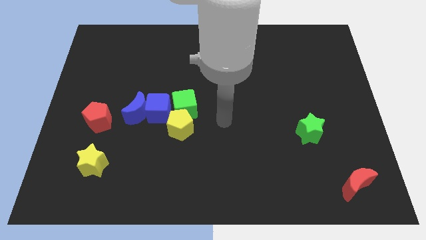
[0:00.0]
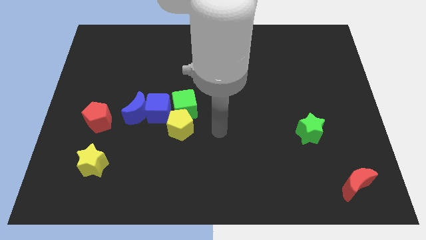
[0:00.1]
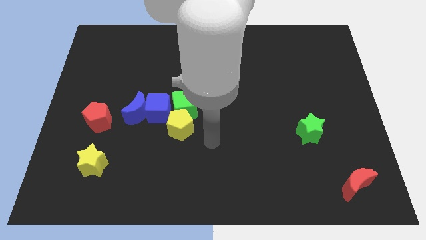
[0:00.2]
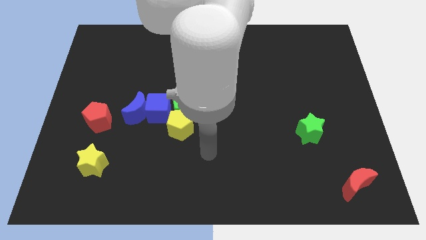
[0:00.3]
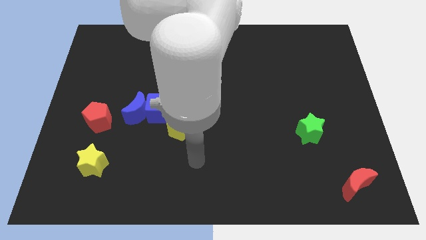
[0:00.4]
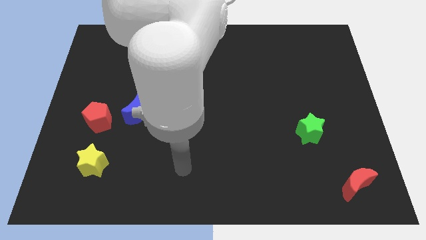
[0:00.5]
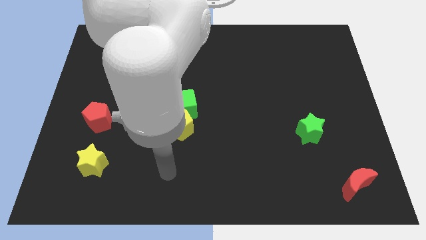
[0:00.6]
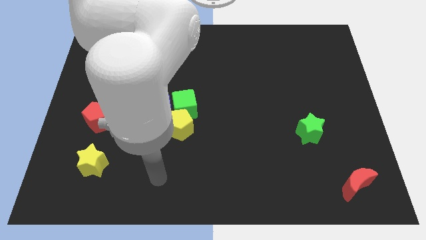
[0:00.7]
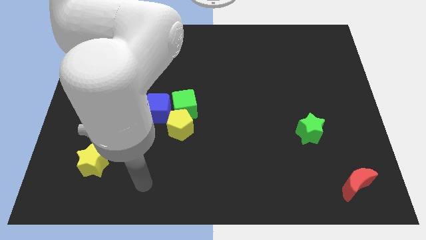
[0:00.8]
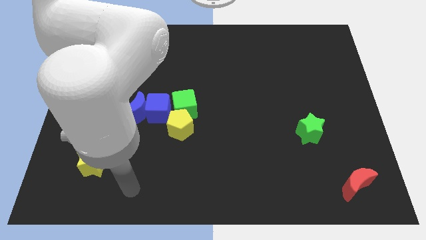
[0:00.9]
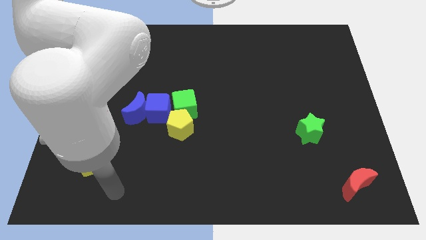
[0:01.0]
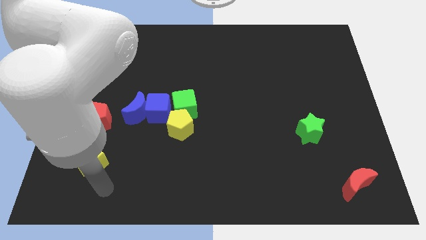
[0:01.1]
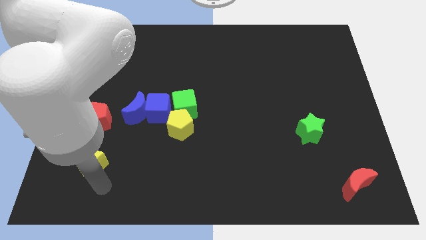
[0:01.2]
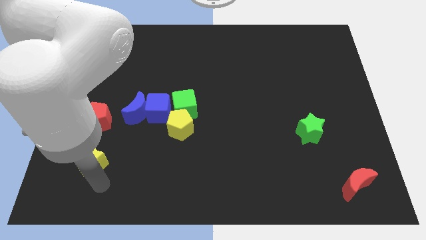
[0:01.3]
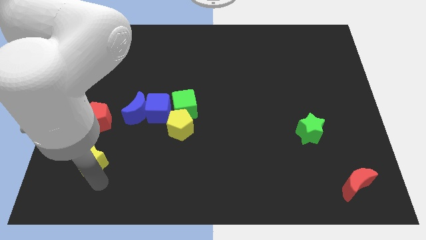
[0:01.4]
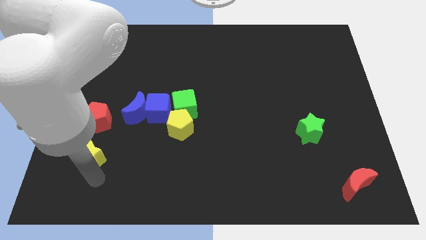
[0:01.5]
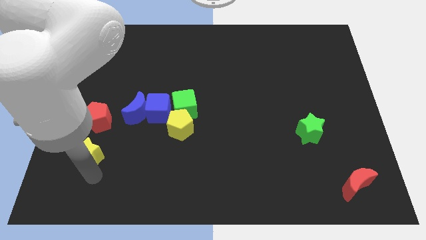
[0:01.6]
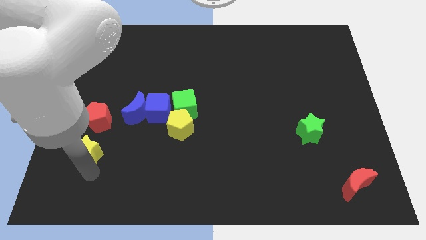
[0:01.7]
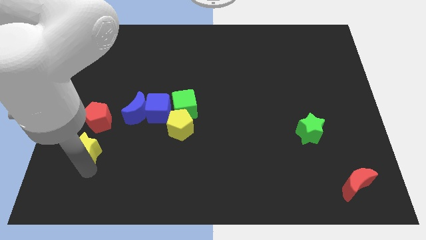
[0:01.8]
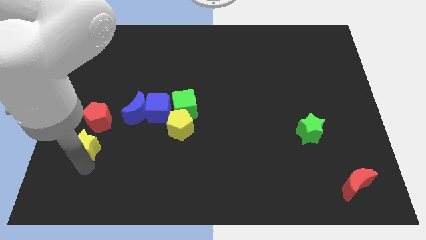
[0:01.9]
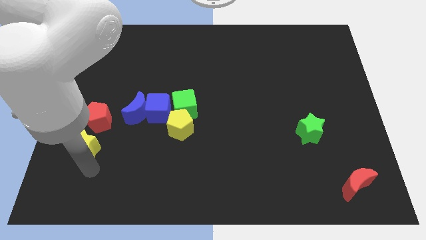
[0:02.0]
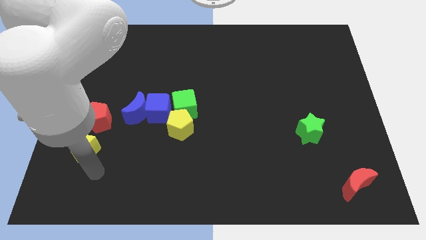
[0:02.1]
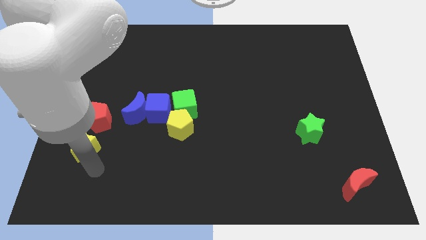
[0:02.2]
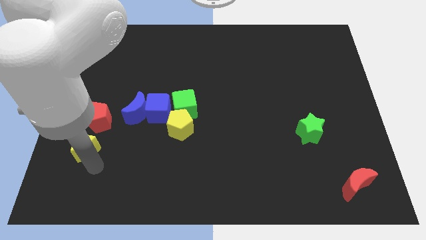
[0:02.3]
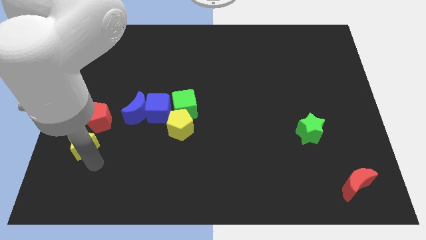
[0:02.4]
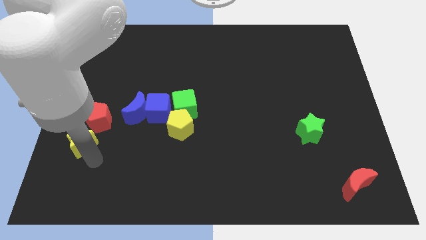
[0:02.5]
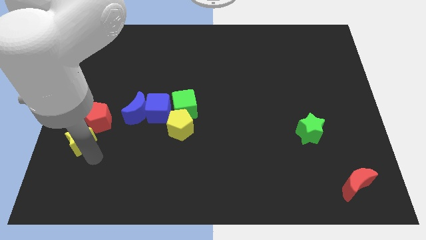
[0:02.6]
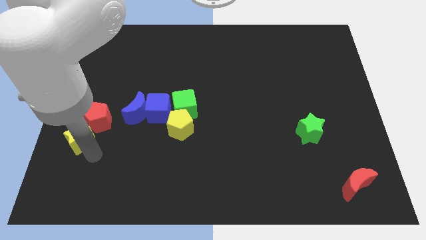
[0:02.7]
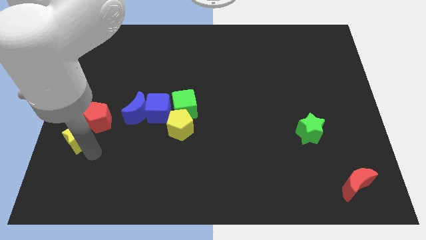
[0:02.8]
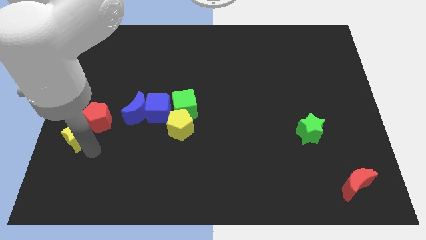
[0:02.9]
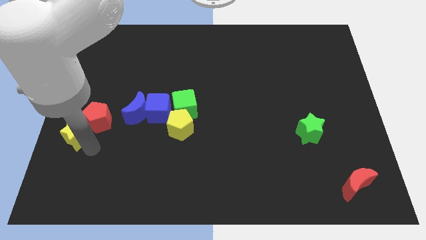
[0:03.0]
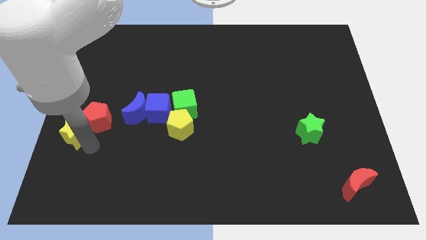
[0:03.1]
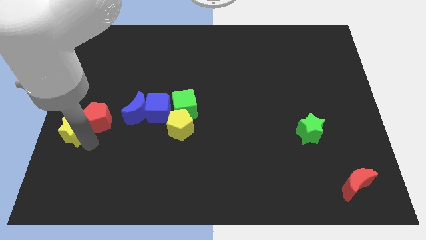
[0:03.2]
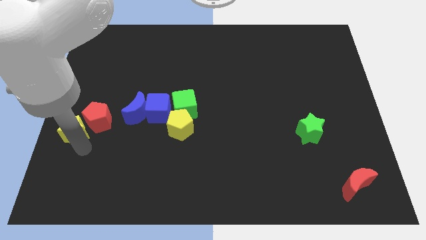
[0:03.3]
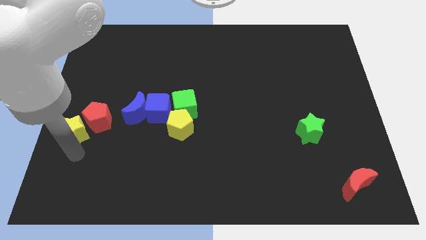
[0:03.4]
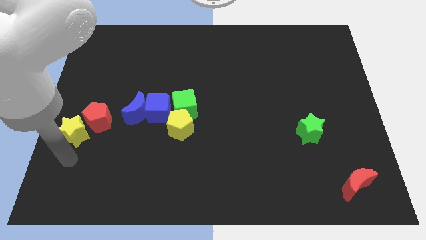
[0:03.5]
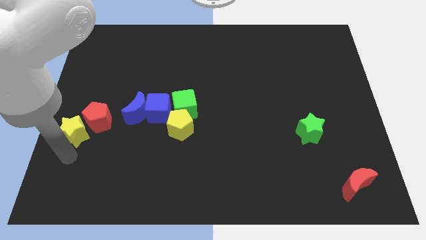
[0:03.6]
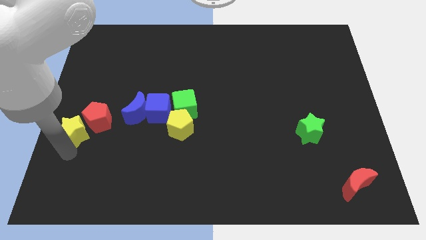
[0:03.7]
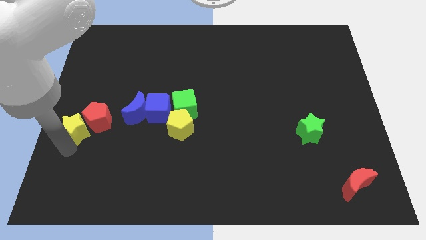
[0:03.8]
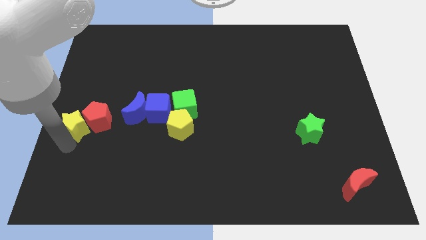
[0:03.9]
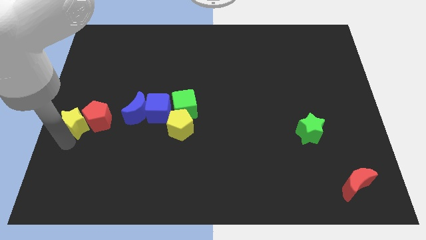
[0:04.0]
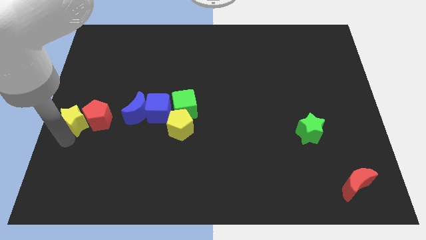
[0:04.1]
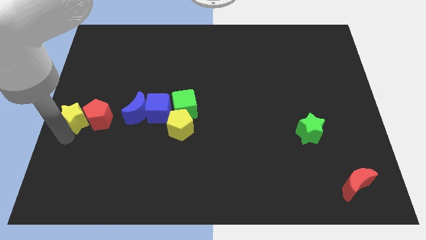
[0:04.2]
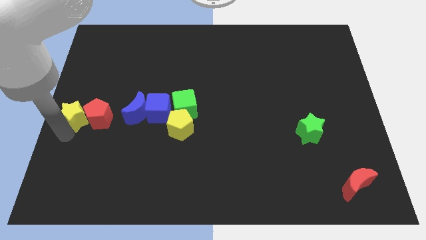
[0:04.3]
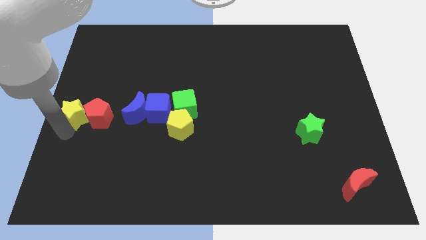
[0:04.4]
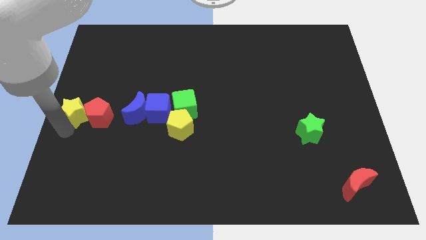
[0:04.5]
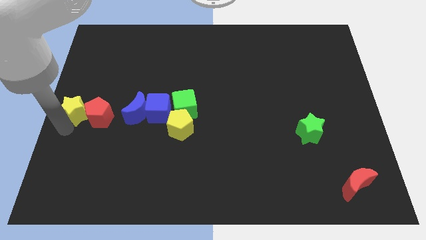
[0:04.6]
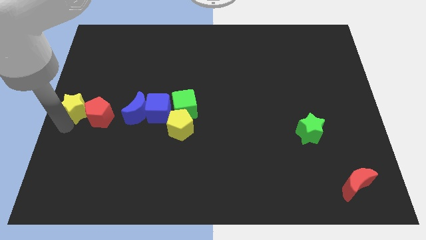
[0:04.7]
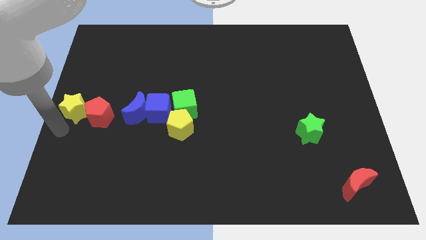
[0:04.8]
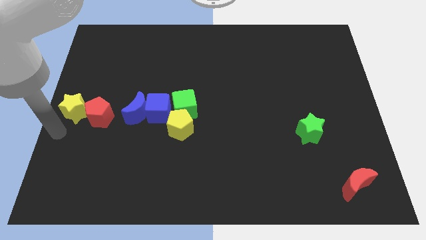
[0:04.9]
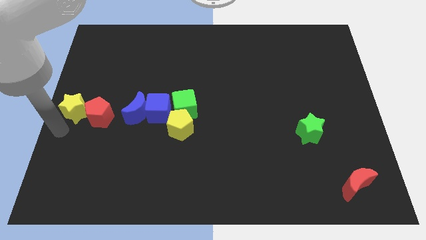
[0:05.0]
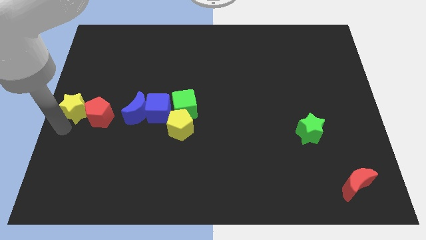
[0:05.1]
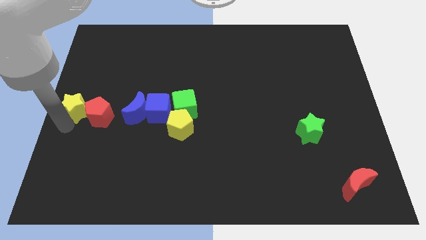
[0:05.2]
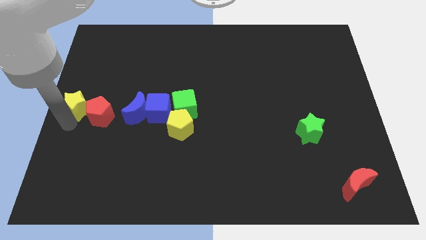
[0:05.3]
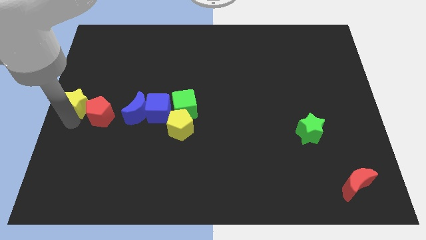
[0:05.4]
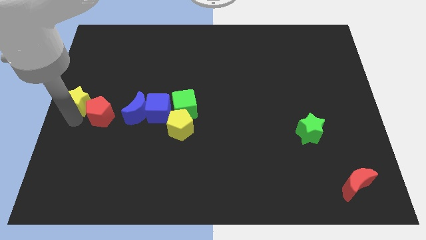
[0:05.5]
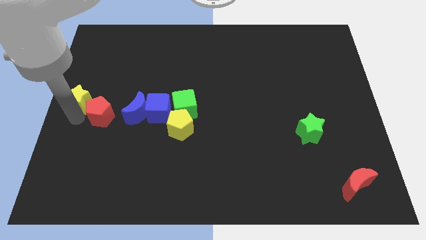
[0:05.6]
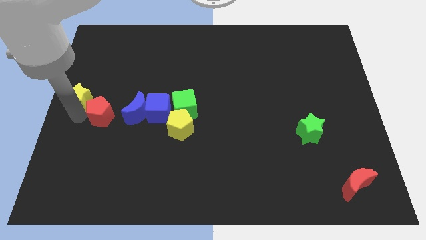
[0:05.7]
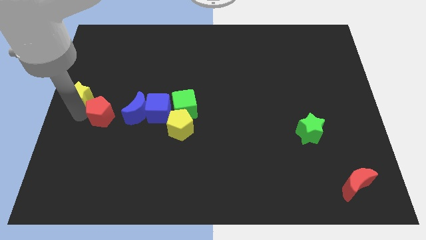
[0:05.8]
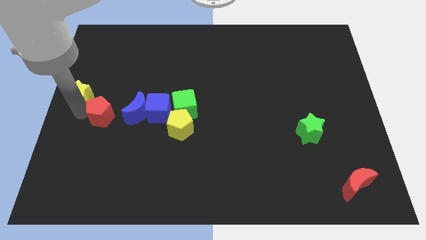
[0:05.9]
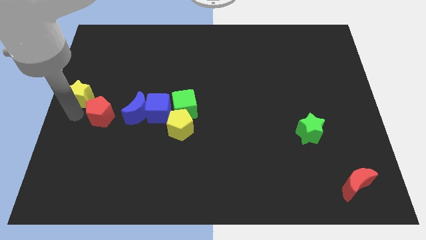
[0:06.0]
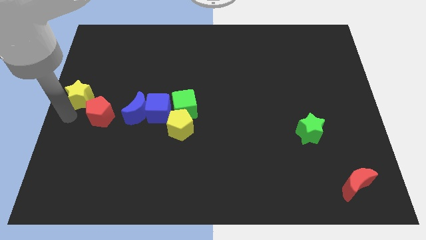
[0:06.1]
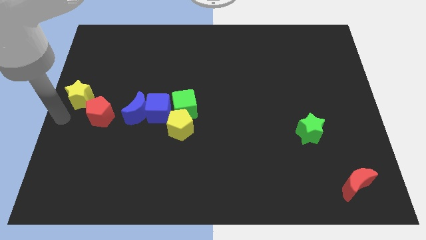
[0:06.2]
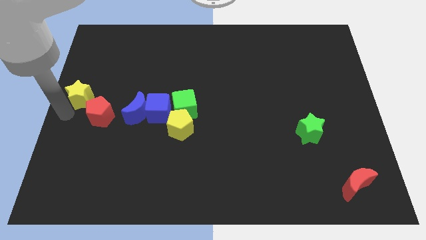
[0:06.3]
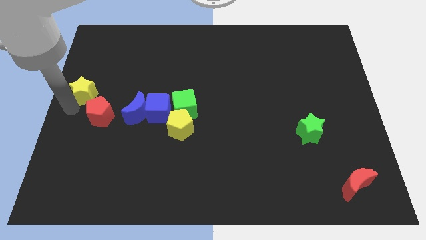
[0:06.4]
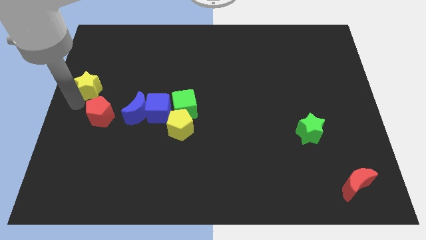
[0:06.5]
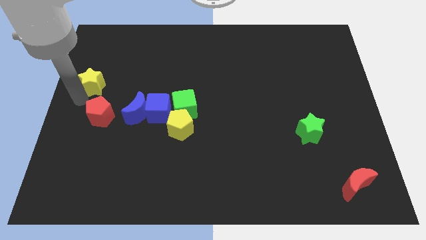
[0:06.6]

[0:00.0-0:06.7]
slide the yellow star up

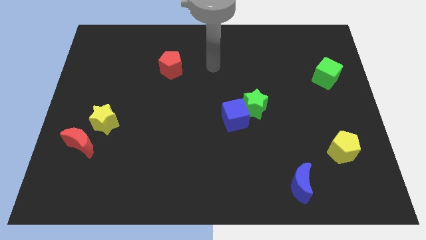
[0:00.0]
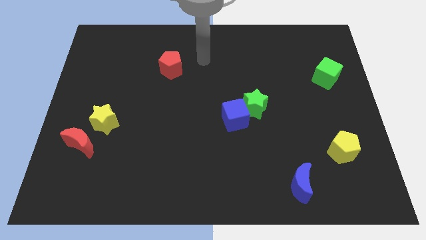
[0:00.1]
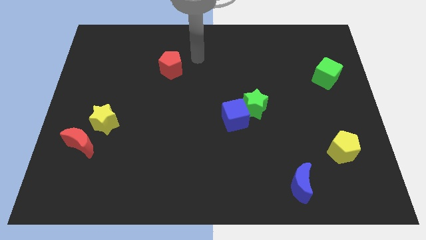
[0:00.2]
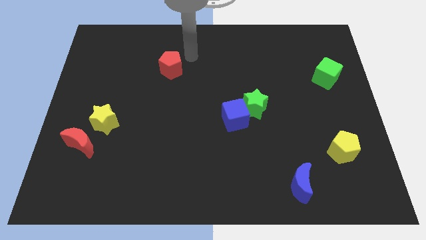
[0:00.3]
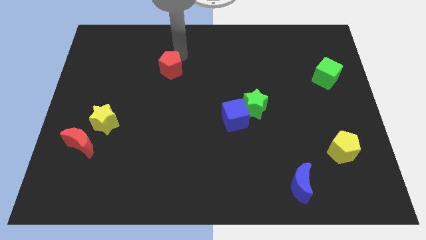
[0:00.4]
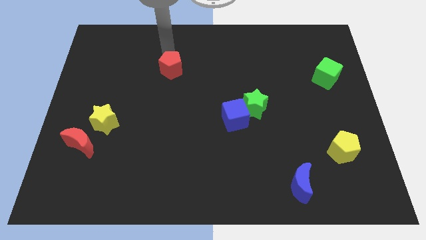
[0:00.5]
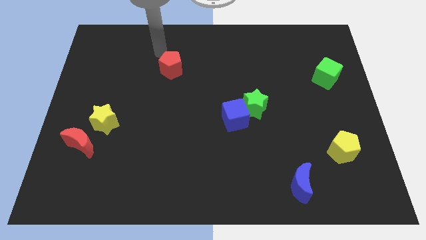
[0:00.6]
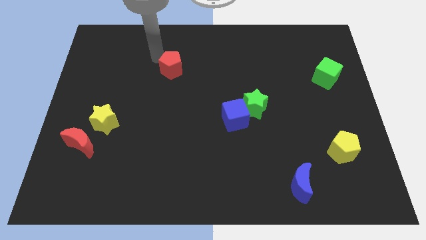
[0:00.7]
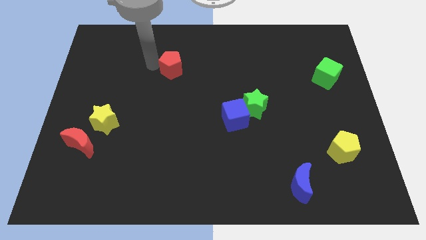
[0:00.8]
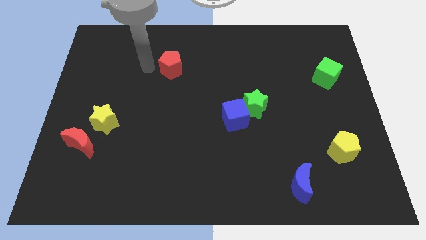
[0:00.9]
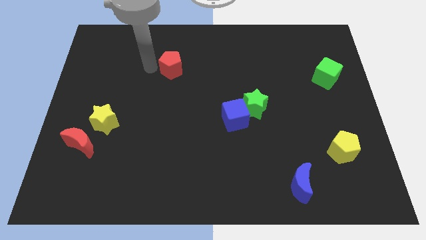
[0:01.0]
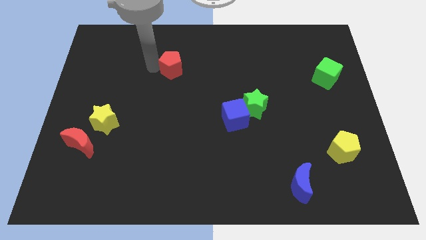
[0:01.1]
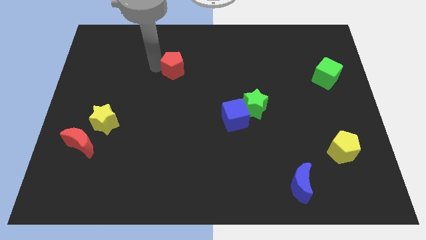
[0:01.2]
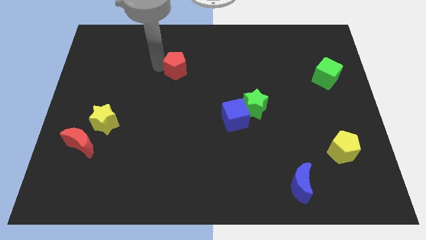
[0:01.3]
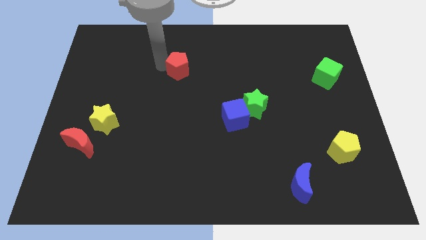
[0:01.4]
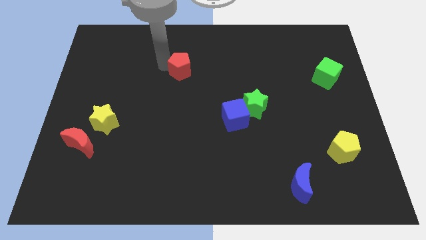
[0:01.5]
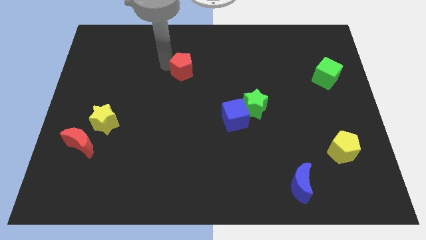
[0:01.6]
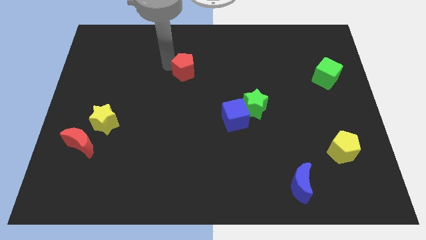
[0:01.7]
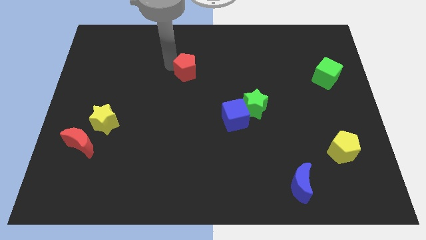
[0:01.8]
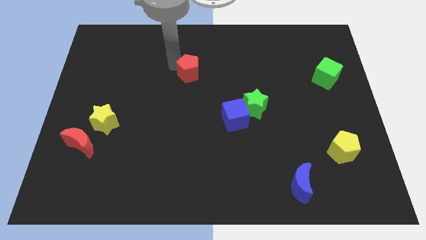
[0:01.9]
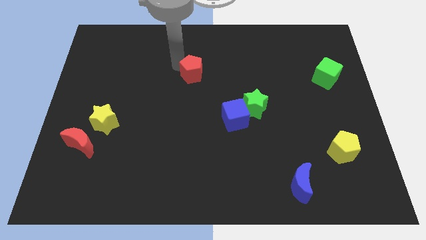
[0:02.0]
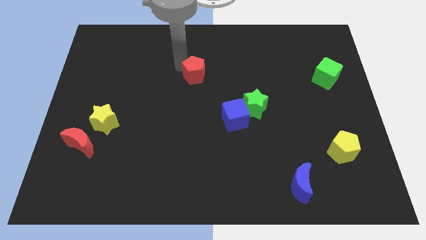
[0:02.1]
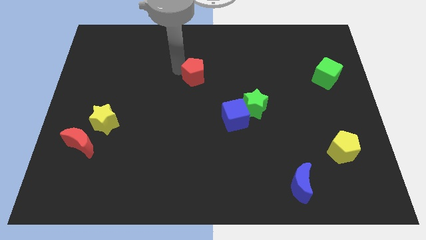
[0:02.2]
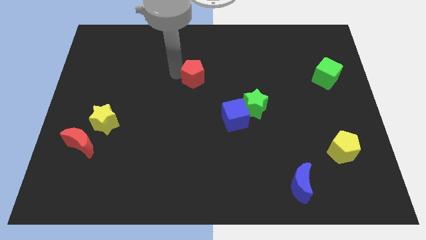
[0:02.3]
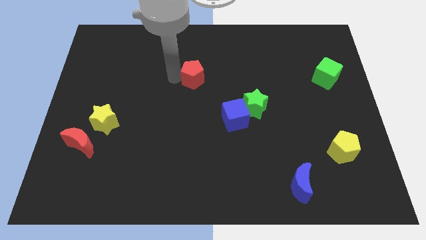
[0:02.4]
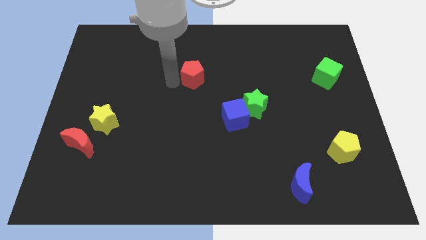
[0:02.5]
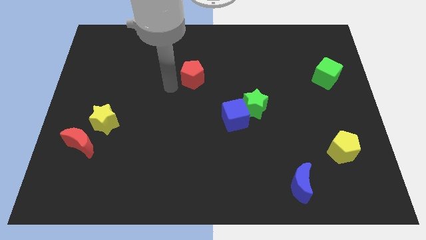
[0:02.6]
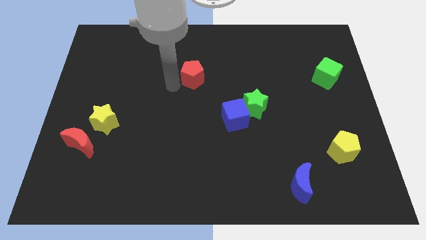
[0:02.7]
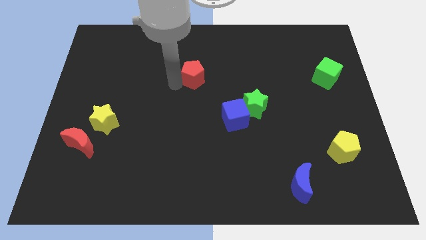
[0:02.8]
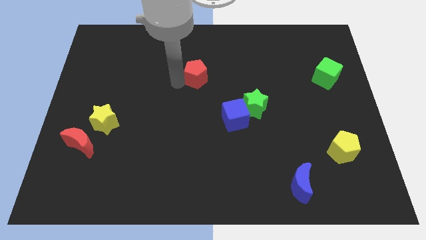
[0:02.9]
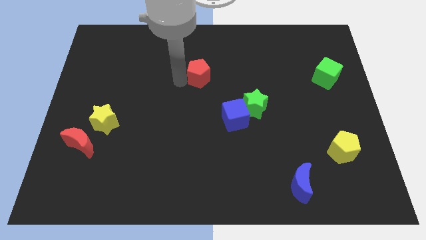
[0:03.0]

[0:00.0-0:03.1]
slightly move the red pentagon right
